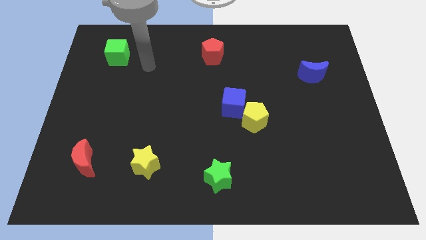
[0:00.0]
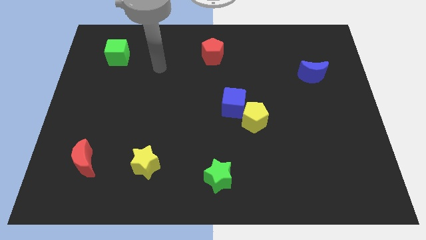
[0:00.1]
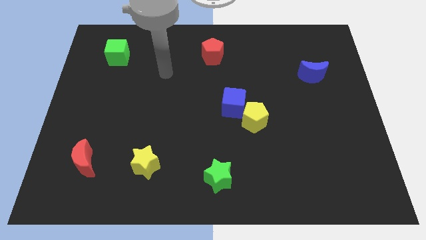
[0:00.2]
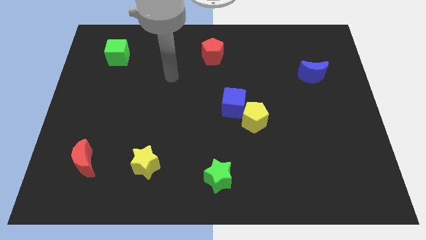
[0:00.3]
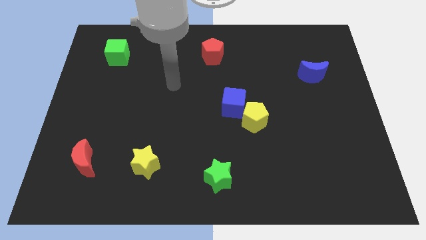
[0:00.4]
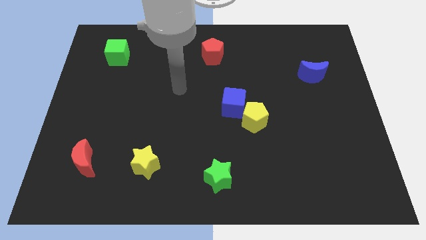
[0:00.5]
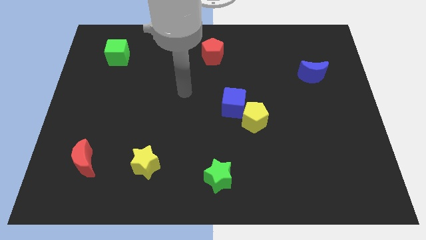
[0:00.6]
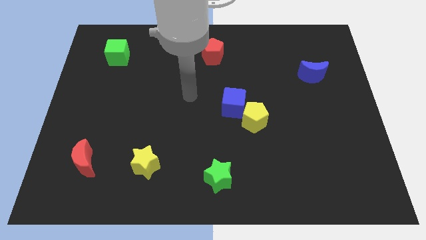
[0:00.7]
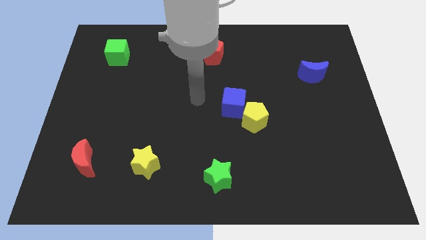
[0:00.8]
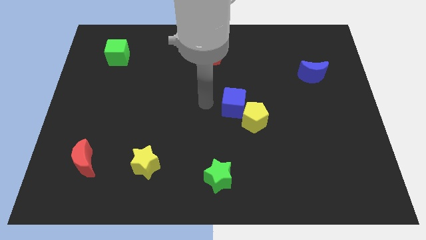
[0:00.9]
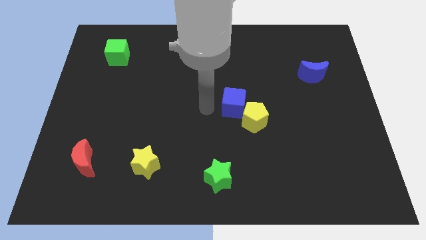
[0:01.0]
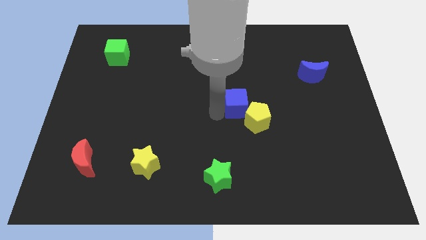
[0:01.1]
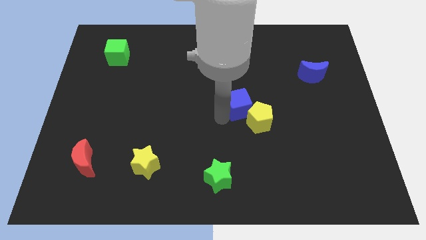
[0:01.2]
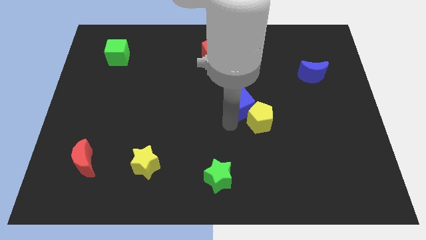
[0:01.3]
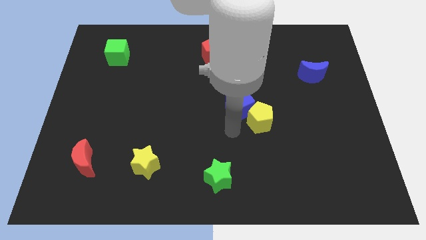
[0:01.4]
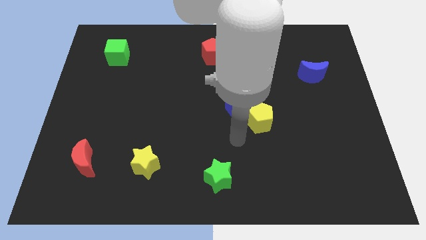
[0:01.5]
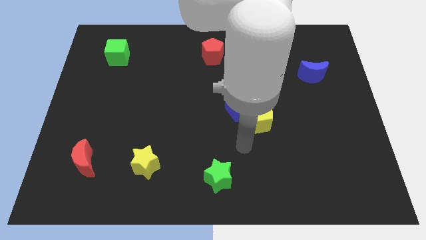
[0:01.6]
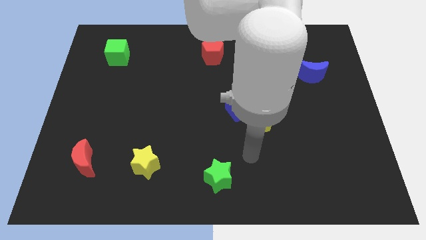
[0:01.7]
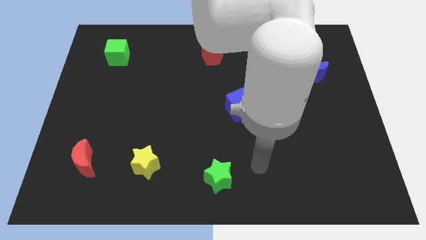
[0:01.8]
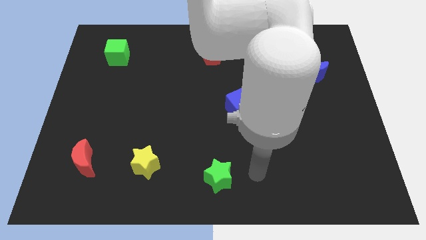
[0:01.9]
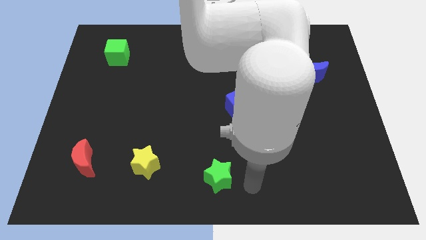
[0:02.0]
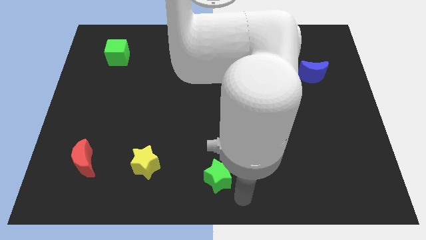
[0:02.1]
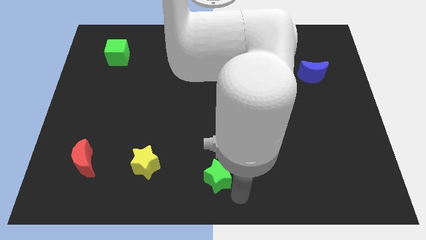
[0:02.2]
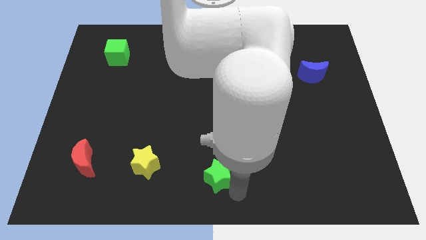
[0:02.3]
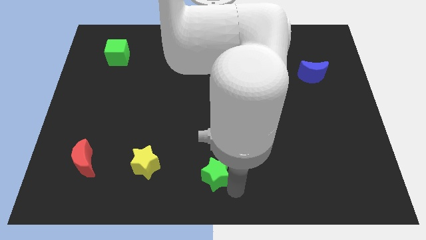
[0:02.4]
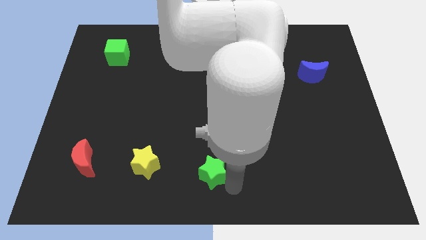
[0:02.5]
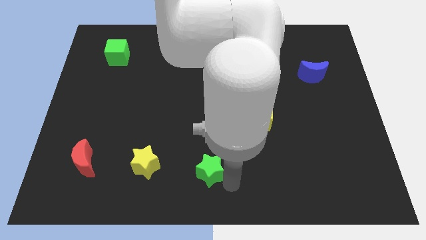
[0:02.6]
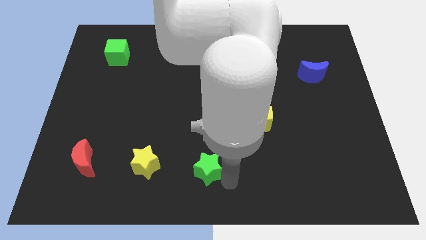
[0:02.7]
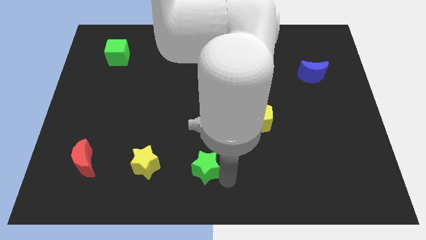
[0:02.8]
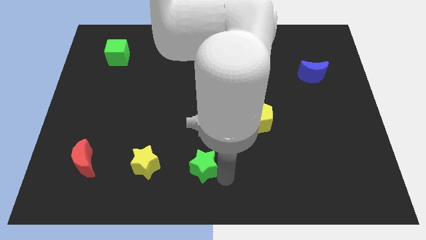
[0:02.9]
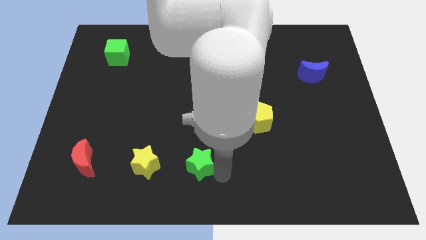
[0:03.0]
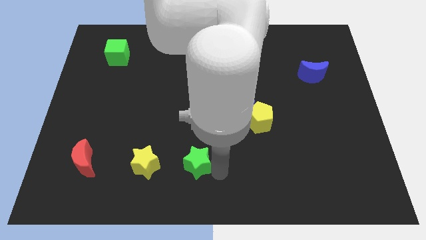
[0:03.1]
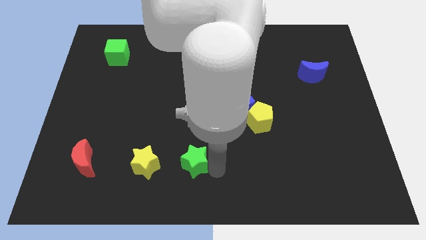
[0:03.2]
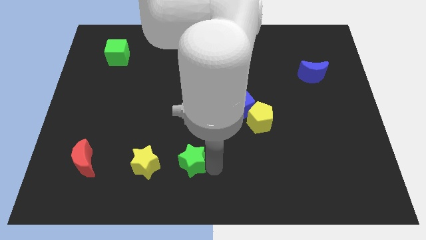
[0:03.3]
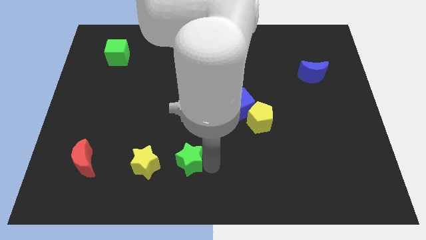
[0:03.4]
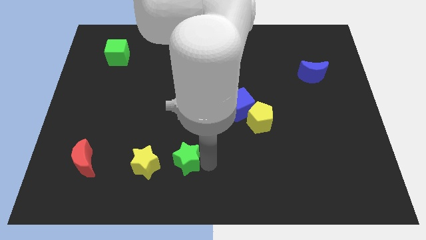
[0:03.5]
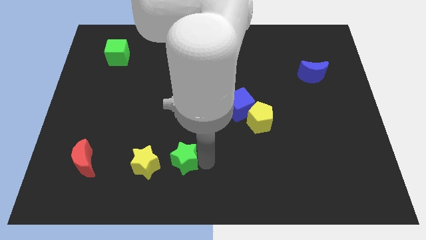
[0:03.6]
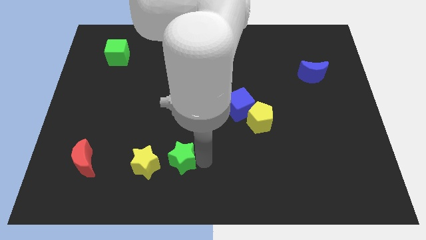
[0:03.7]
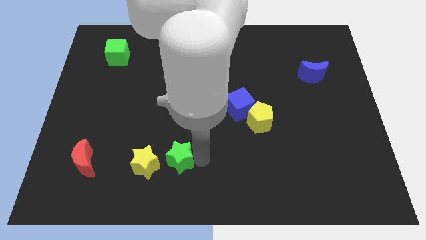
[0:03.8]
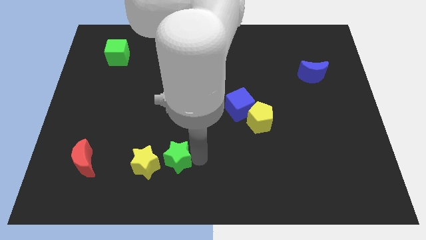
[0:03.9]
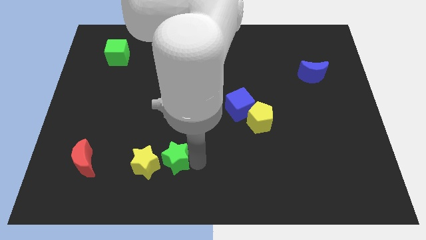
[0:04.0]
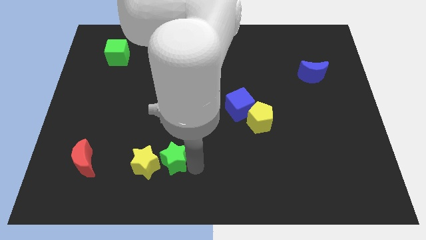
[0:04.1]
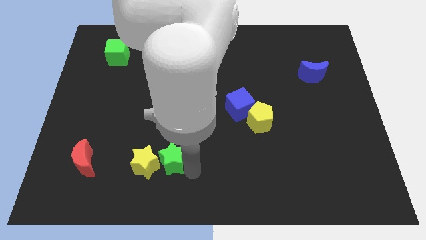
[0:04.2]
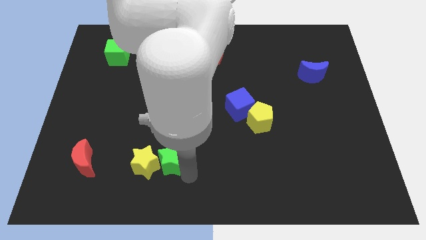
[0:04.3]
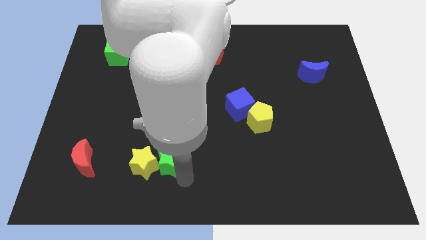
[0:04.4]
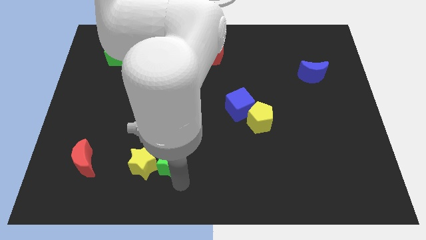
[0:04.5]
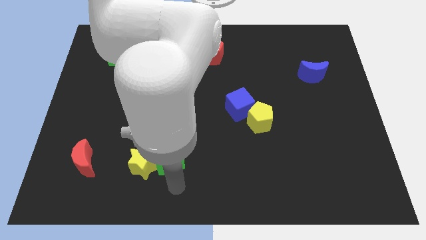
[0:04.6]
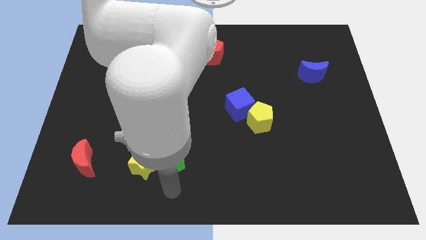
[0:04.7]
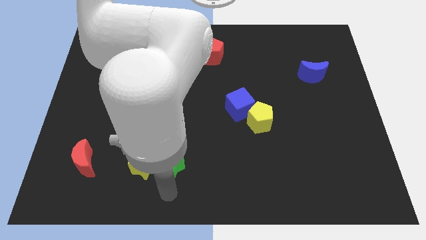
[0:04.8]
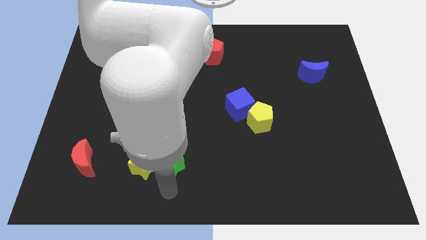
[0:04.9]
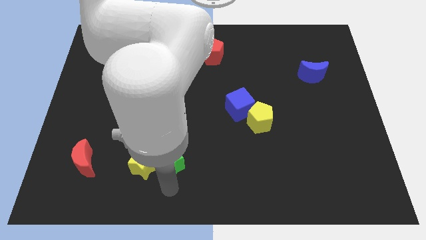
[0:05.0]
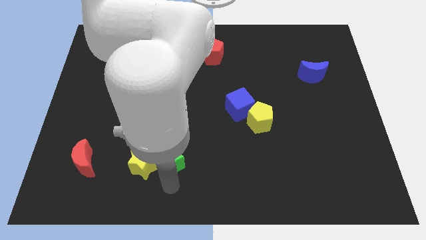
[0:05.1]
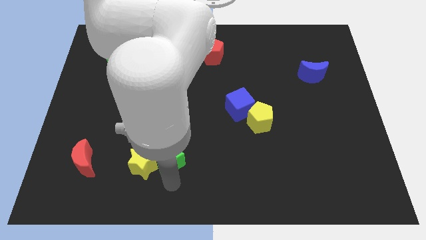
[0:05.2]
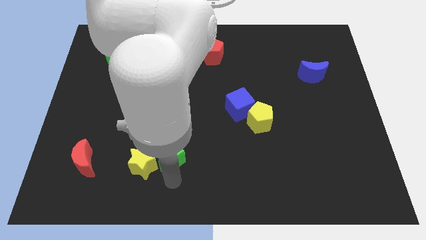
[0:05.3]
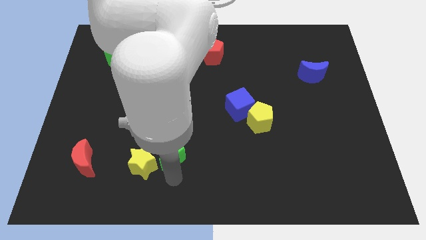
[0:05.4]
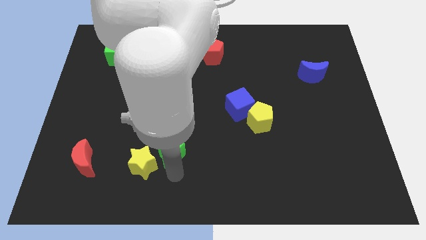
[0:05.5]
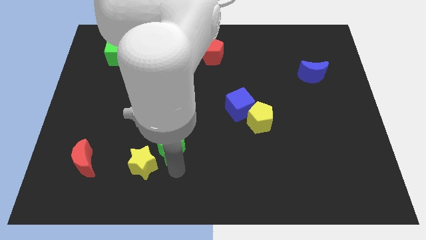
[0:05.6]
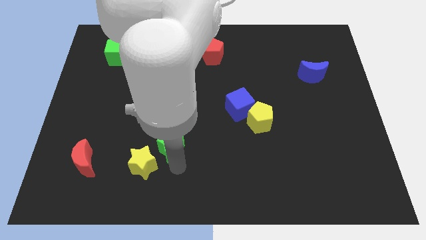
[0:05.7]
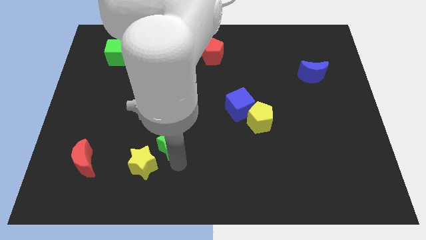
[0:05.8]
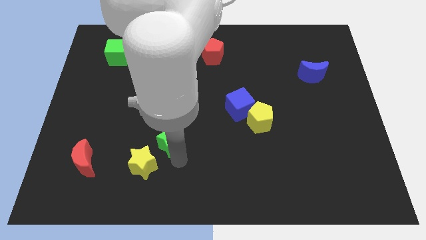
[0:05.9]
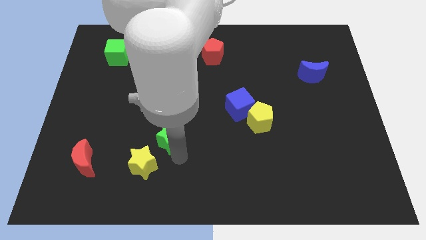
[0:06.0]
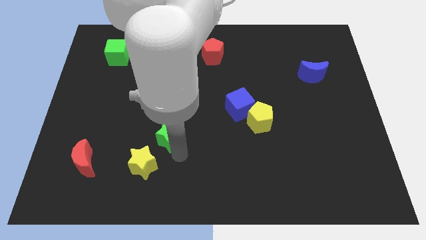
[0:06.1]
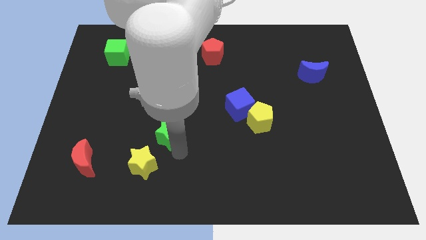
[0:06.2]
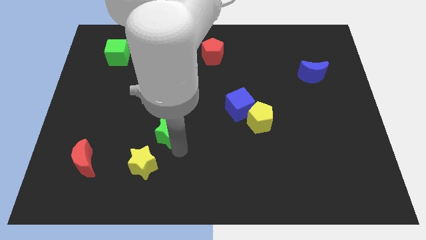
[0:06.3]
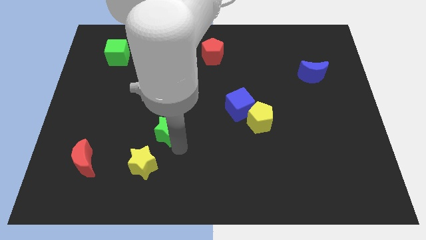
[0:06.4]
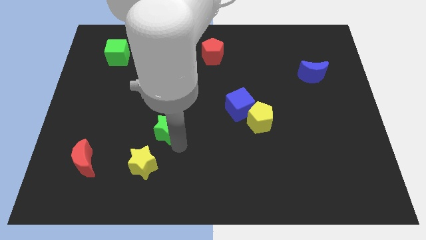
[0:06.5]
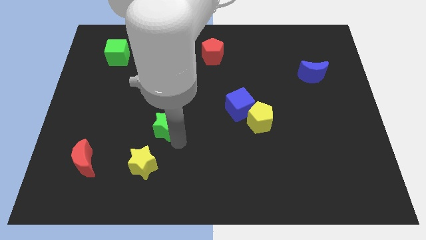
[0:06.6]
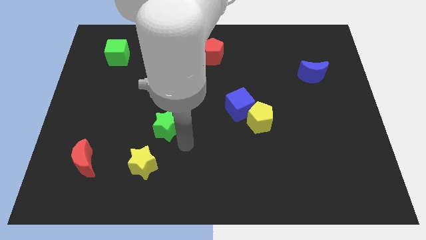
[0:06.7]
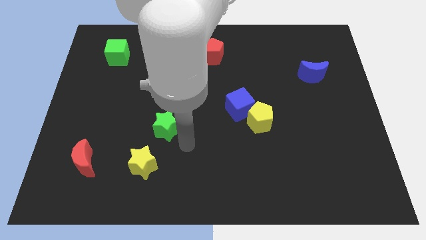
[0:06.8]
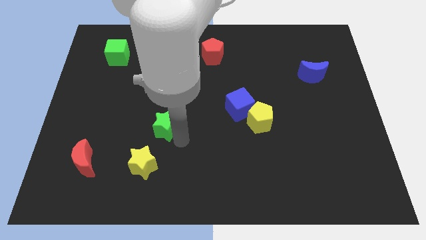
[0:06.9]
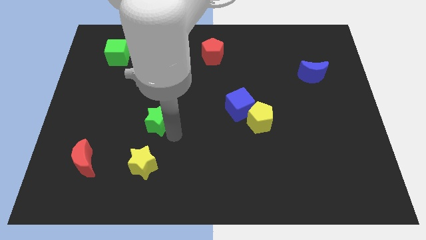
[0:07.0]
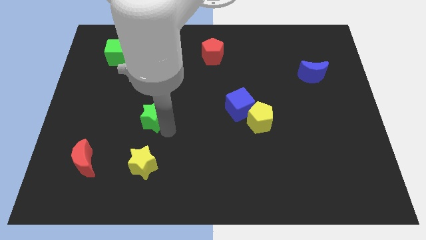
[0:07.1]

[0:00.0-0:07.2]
push the green star diagonally upwards and to the left

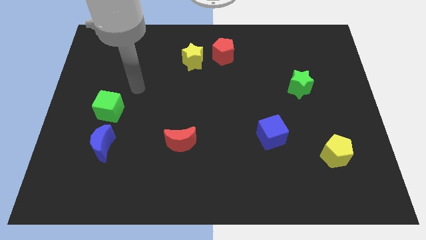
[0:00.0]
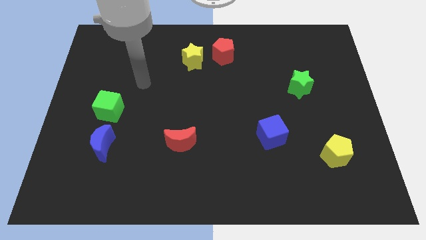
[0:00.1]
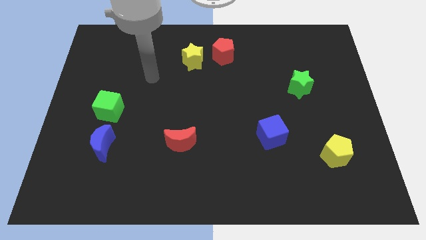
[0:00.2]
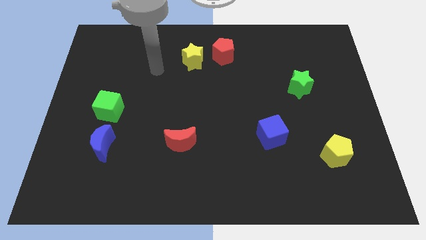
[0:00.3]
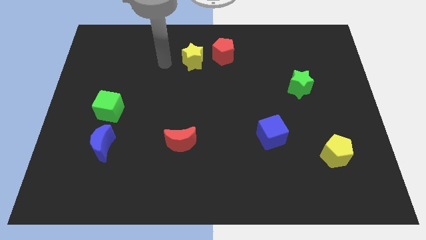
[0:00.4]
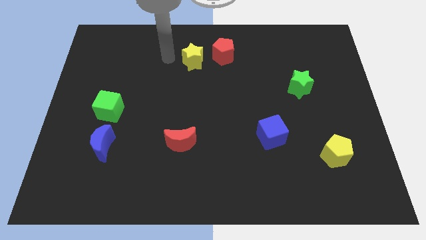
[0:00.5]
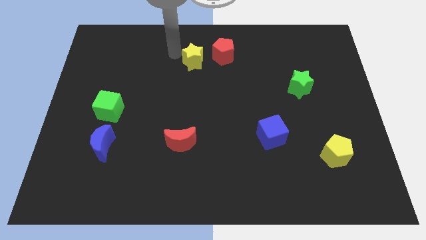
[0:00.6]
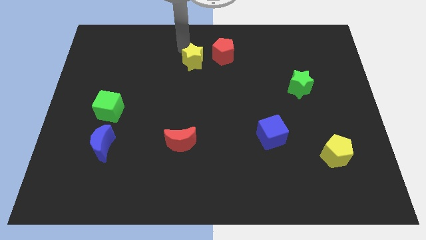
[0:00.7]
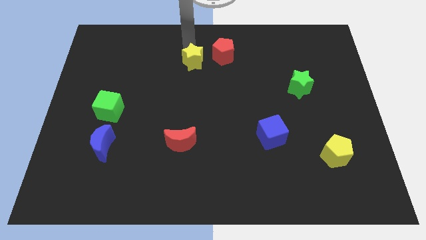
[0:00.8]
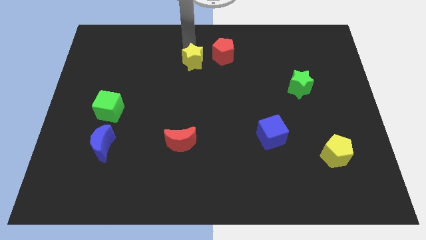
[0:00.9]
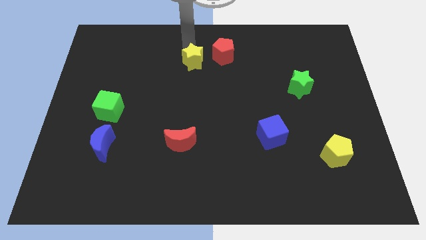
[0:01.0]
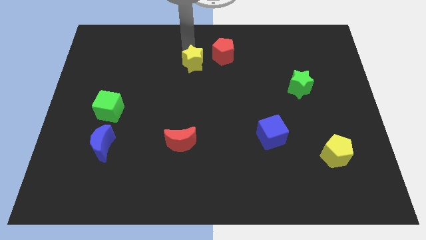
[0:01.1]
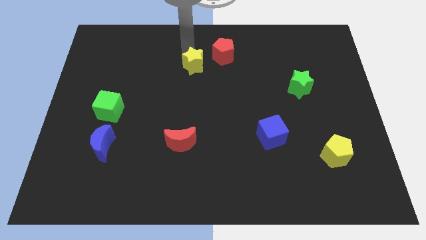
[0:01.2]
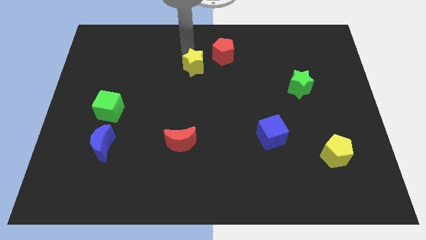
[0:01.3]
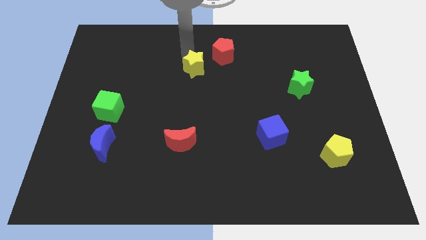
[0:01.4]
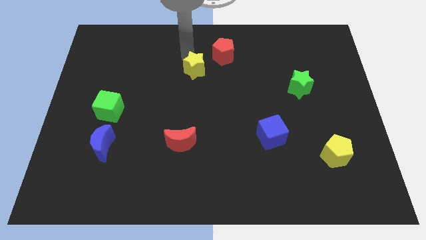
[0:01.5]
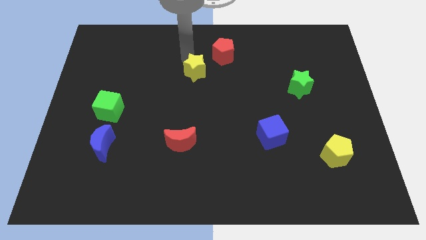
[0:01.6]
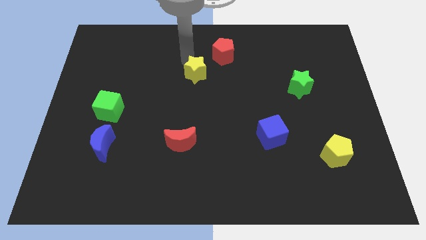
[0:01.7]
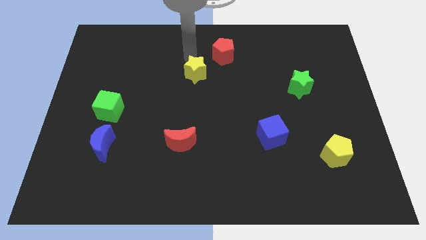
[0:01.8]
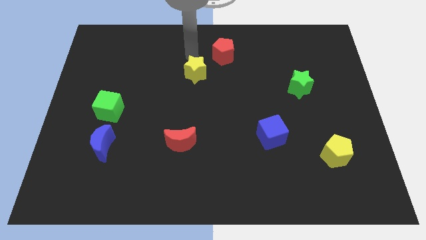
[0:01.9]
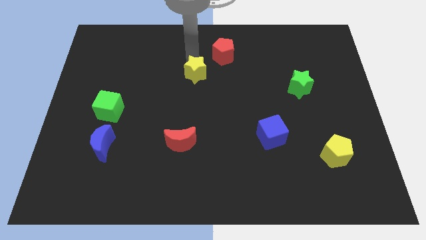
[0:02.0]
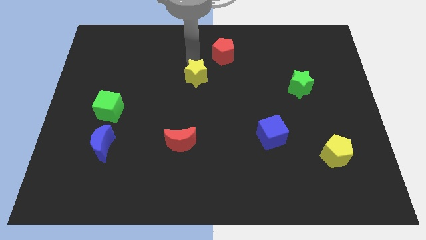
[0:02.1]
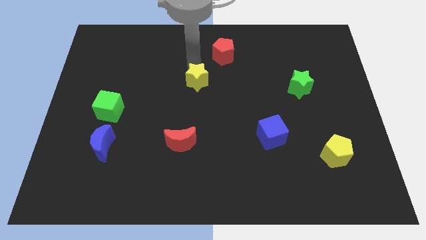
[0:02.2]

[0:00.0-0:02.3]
slide the yellow star downwards a little bit
